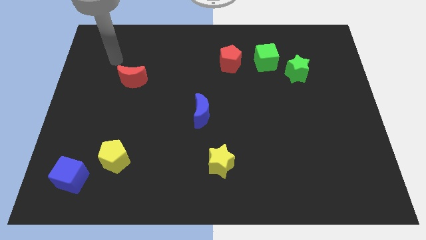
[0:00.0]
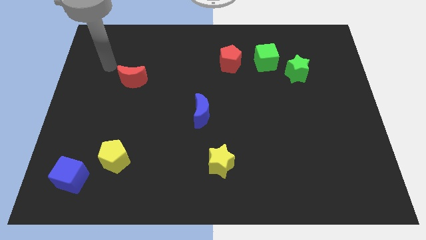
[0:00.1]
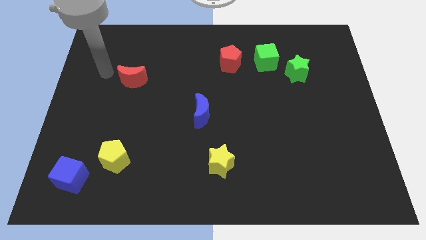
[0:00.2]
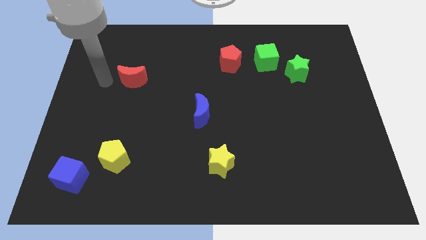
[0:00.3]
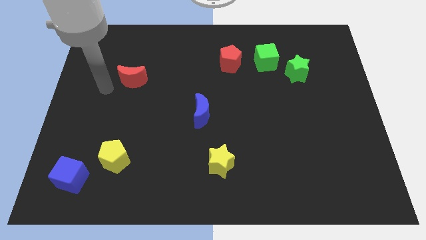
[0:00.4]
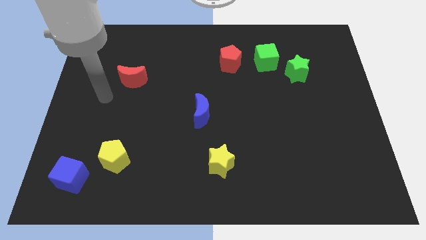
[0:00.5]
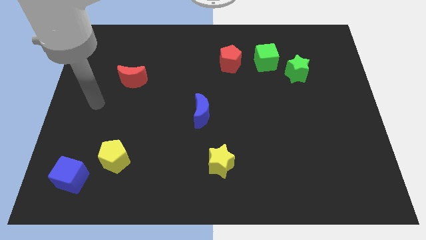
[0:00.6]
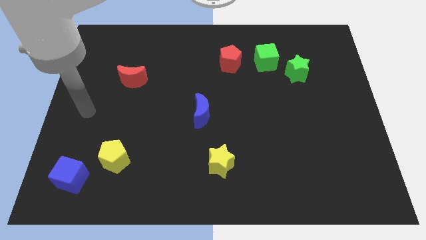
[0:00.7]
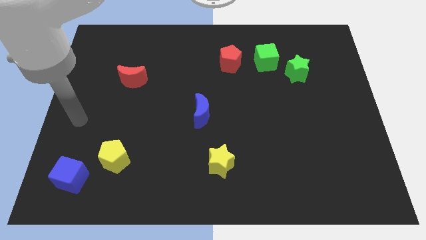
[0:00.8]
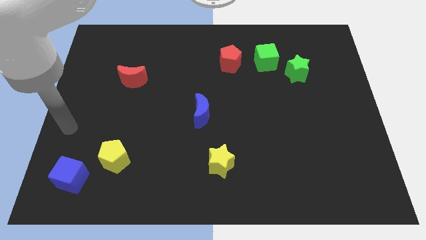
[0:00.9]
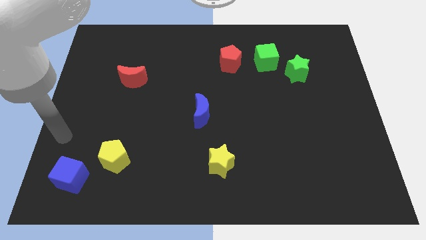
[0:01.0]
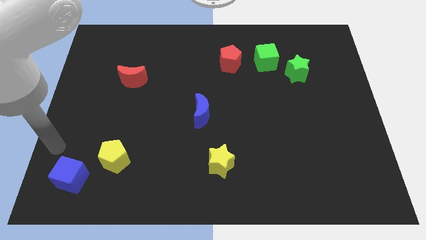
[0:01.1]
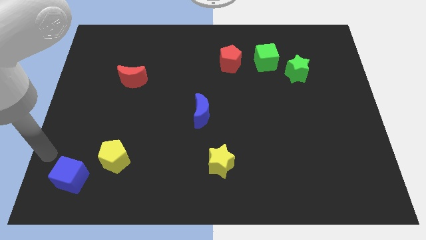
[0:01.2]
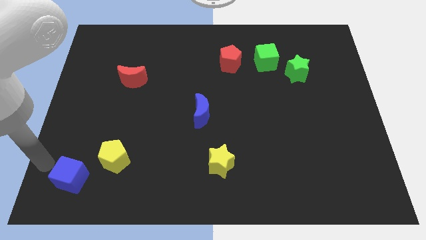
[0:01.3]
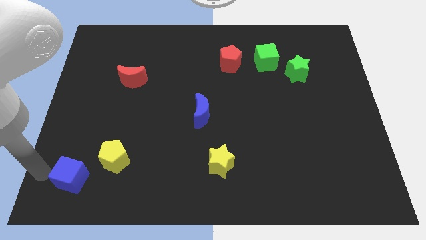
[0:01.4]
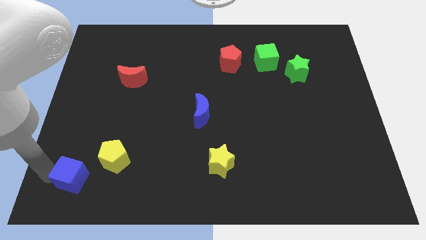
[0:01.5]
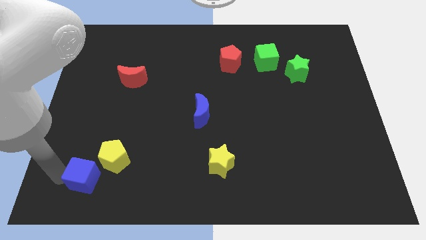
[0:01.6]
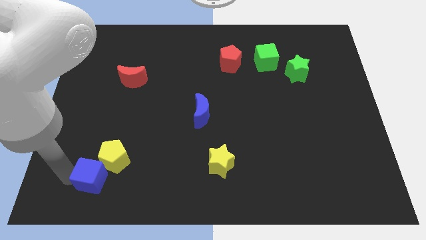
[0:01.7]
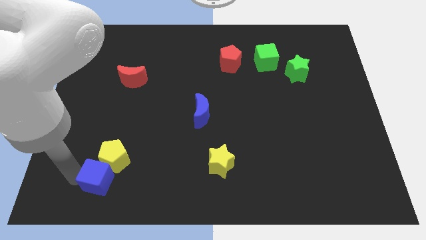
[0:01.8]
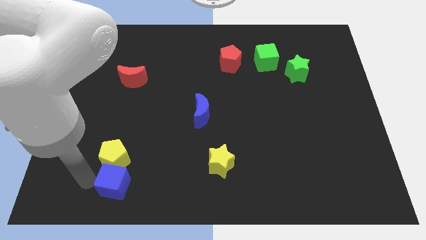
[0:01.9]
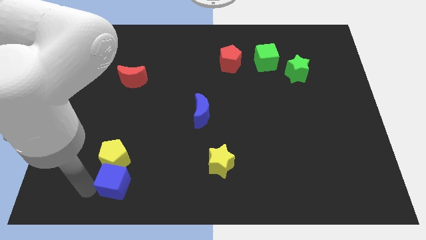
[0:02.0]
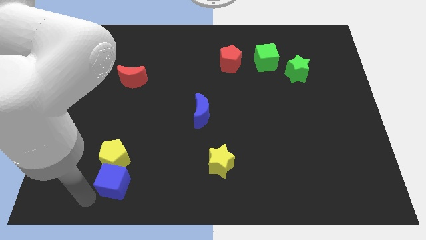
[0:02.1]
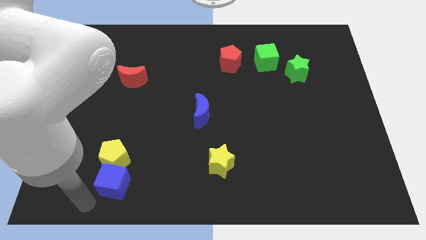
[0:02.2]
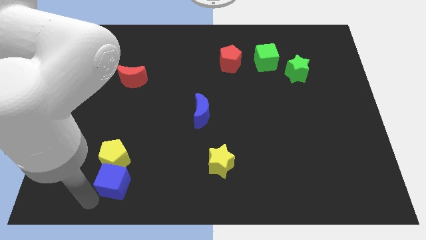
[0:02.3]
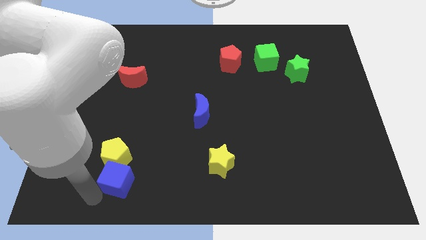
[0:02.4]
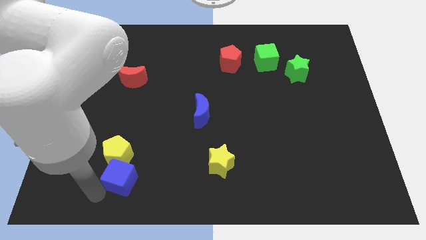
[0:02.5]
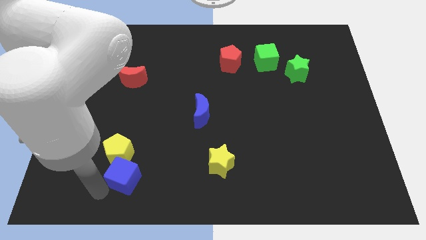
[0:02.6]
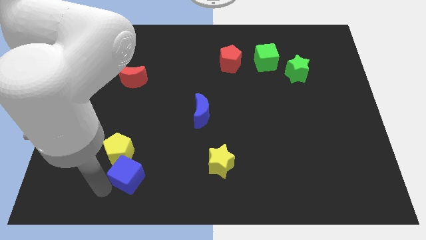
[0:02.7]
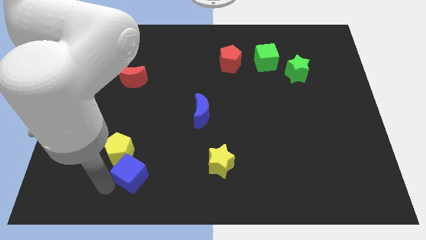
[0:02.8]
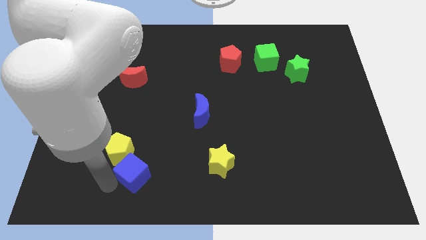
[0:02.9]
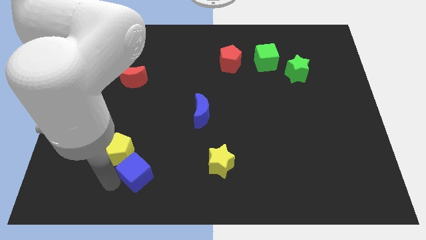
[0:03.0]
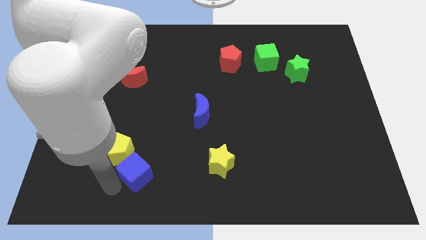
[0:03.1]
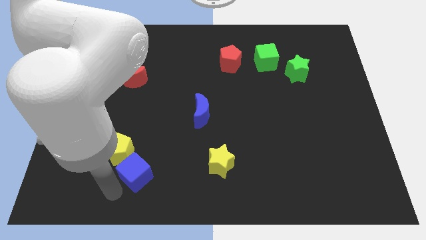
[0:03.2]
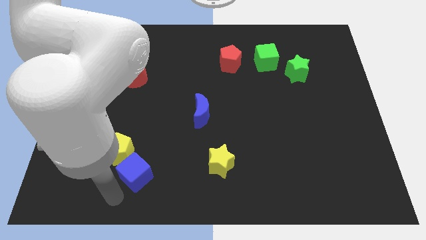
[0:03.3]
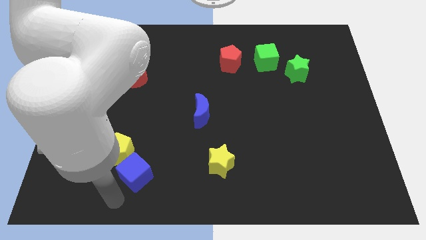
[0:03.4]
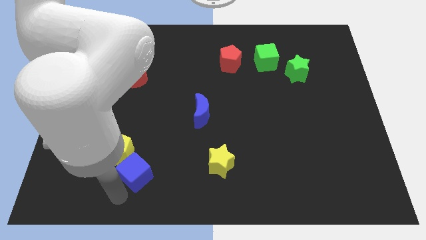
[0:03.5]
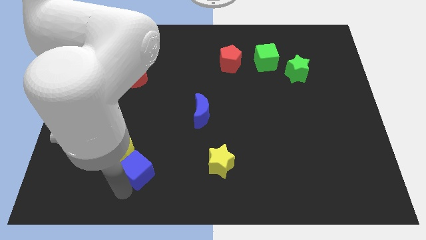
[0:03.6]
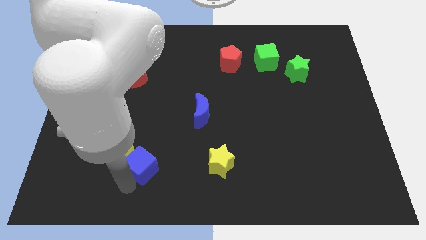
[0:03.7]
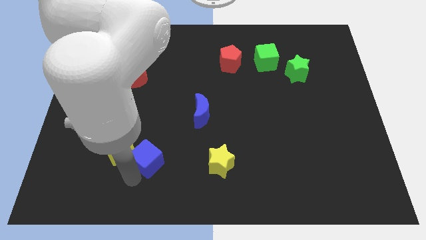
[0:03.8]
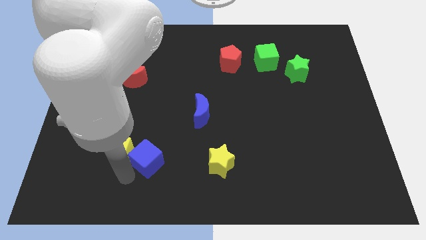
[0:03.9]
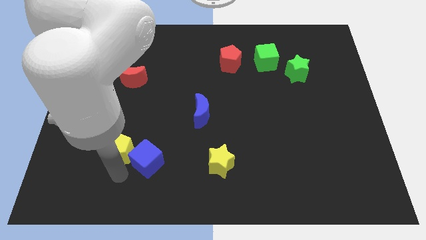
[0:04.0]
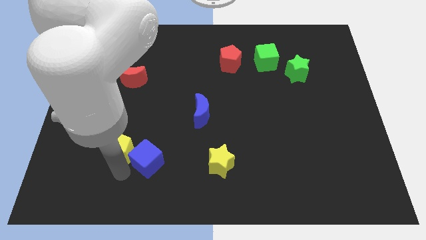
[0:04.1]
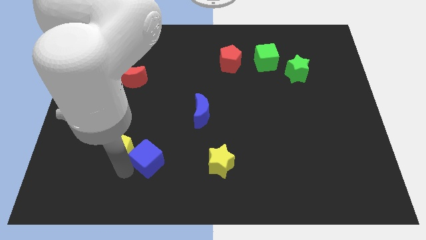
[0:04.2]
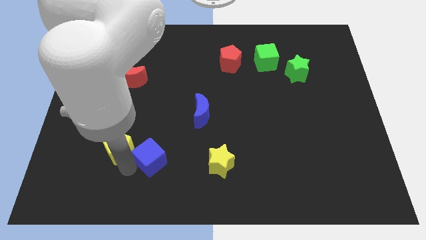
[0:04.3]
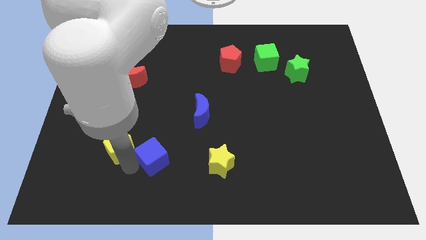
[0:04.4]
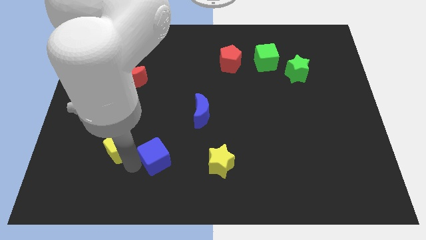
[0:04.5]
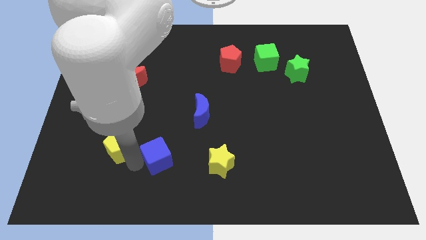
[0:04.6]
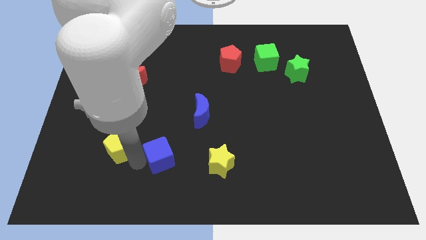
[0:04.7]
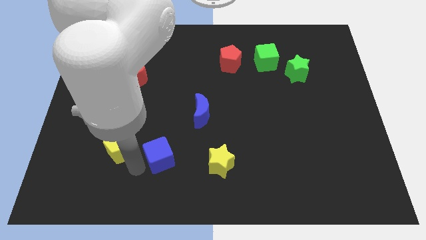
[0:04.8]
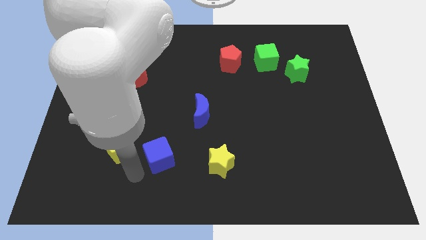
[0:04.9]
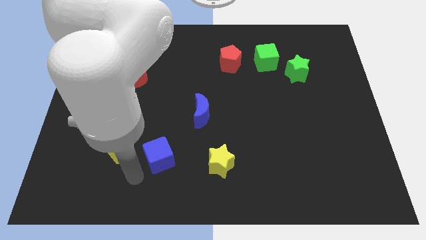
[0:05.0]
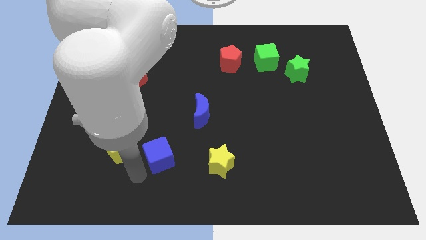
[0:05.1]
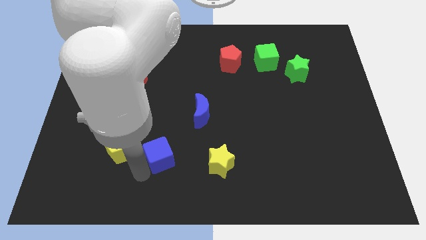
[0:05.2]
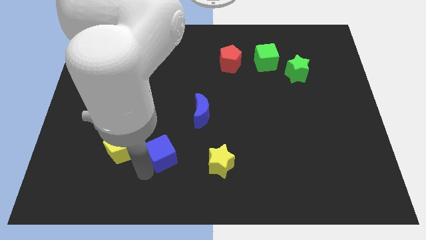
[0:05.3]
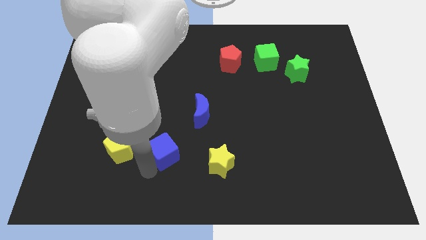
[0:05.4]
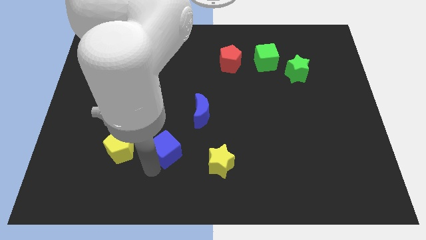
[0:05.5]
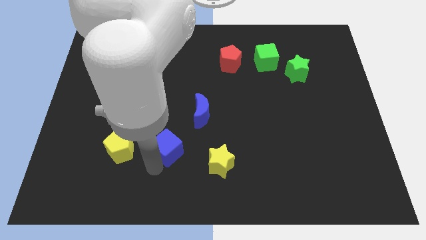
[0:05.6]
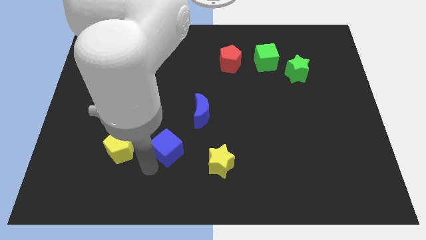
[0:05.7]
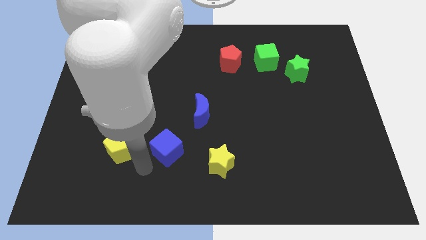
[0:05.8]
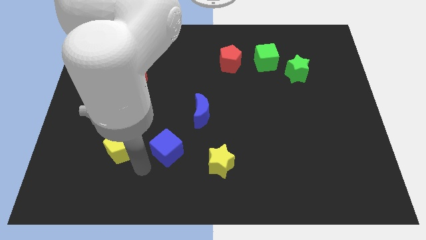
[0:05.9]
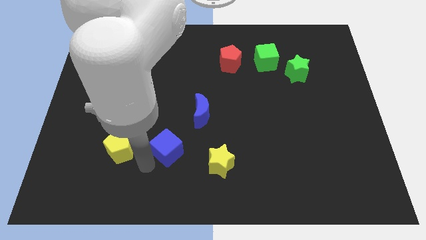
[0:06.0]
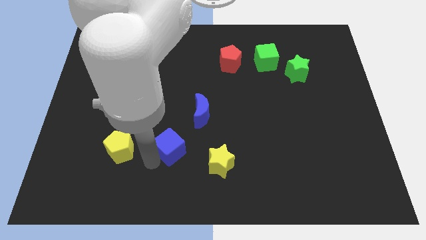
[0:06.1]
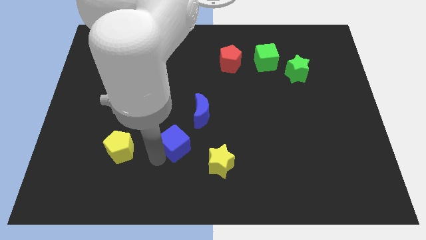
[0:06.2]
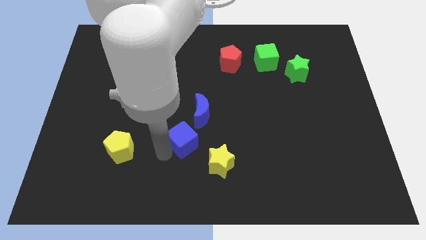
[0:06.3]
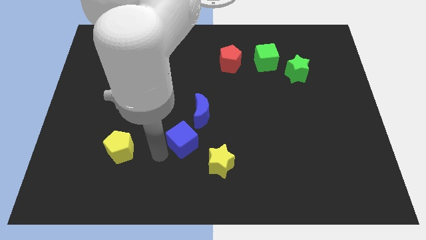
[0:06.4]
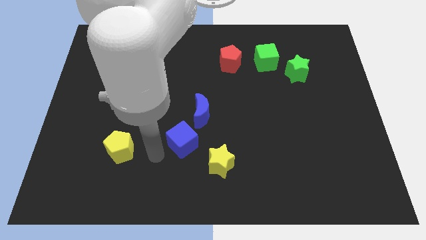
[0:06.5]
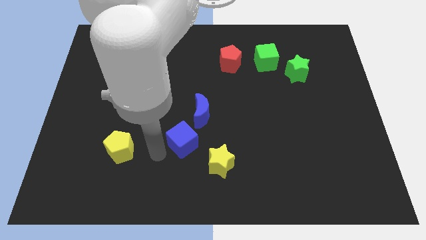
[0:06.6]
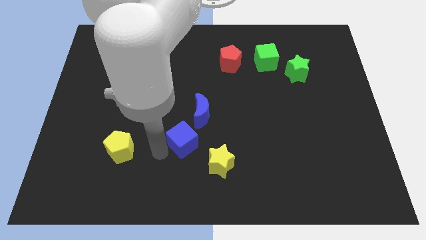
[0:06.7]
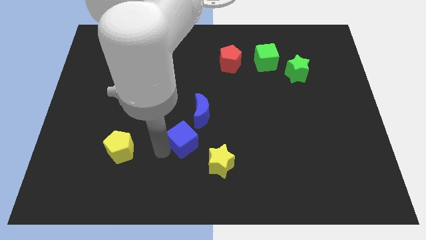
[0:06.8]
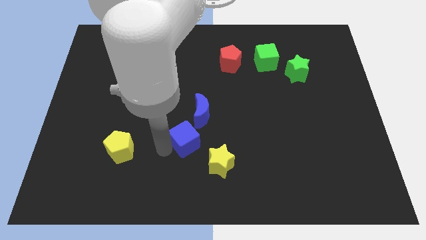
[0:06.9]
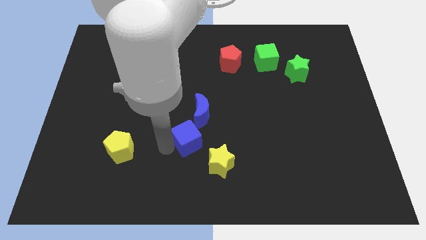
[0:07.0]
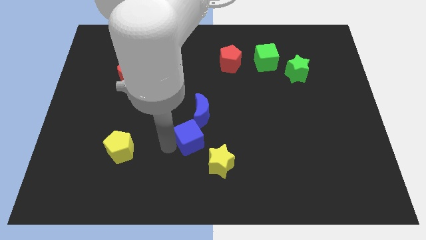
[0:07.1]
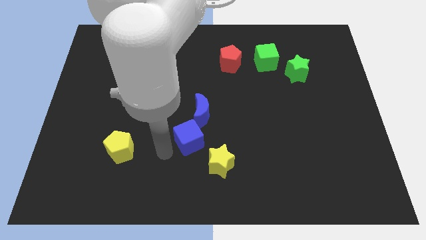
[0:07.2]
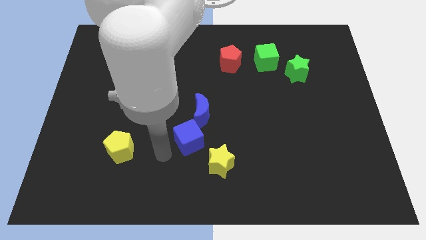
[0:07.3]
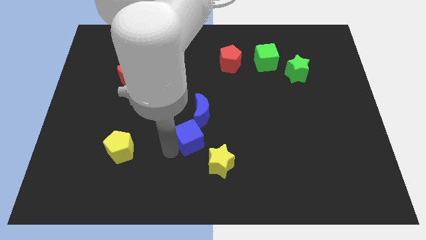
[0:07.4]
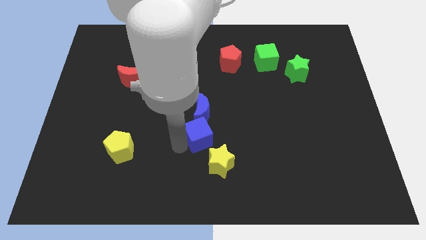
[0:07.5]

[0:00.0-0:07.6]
slide the blue cube to the top side of the yellow star

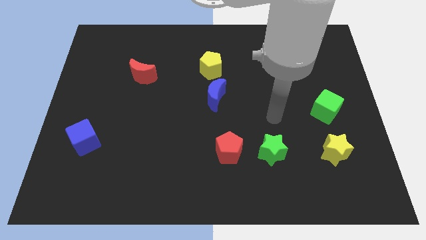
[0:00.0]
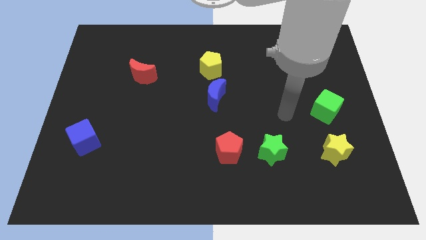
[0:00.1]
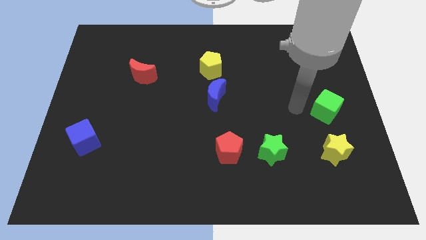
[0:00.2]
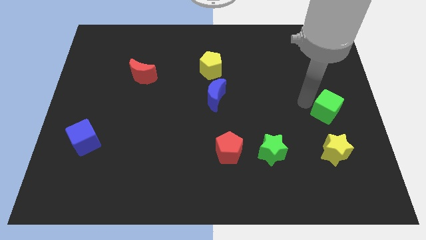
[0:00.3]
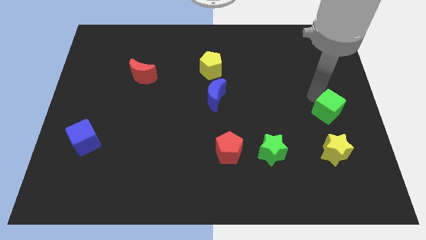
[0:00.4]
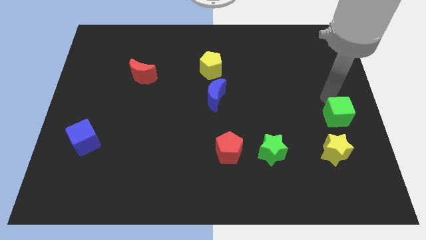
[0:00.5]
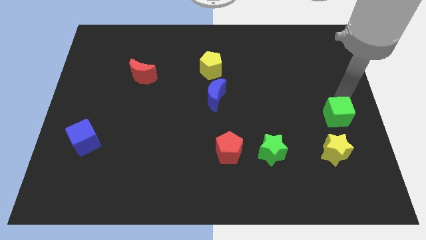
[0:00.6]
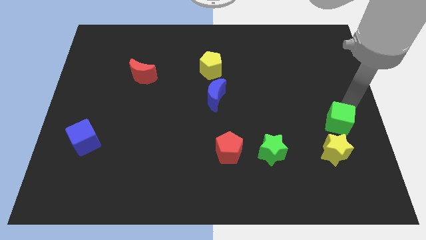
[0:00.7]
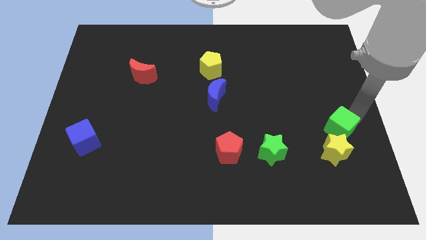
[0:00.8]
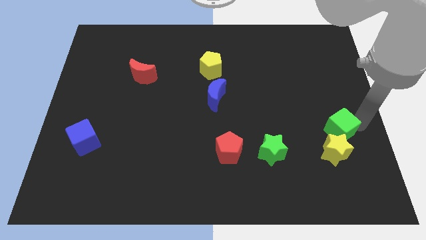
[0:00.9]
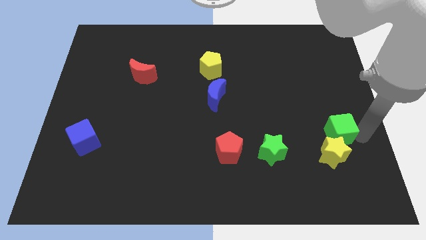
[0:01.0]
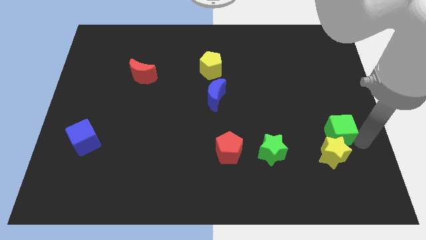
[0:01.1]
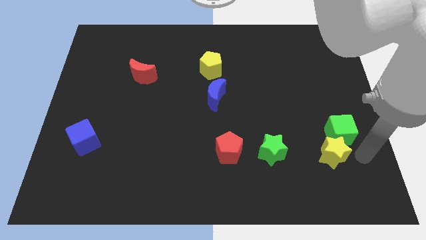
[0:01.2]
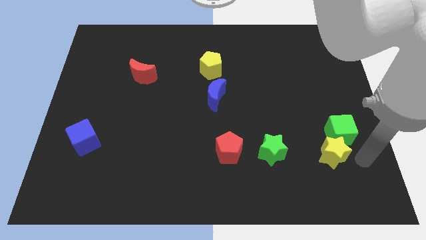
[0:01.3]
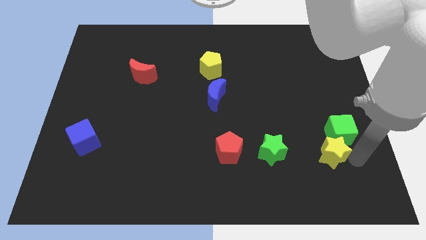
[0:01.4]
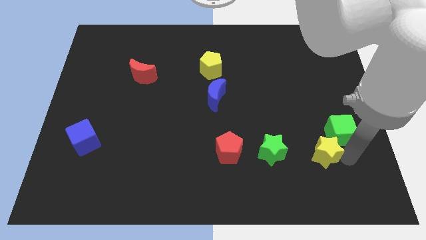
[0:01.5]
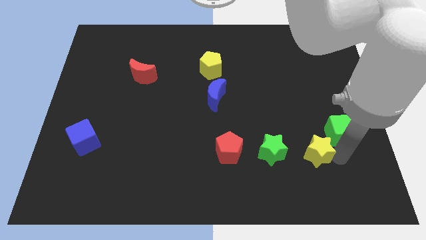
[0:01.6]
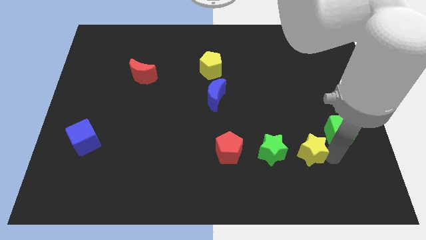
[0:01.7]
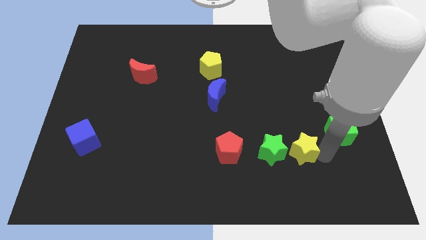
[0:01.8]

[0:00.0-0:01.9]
move the yellow star just right of the red pentagon
